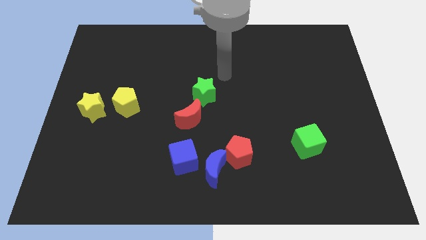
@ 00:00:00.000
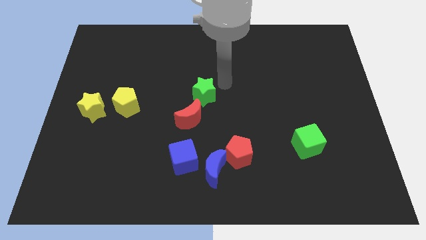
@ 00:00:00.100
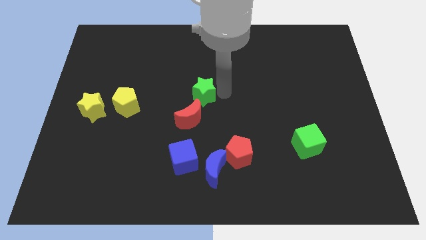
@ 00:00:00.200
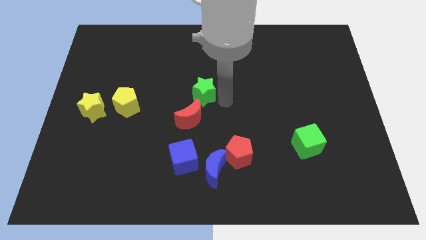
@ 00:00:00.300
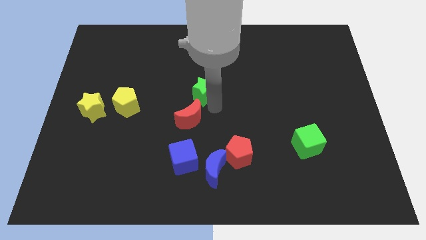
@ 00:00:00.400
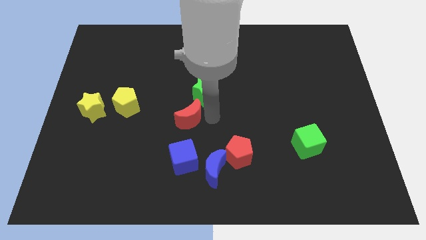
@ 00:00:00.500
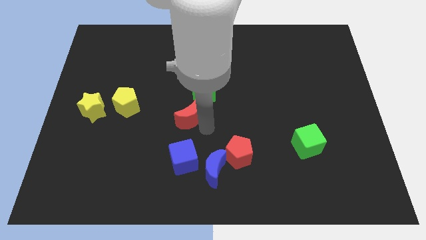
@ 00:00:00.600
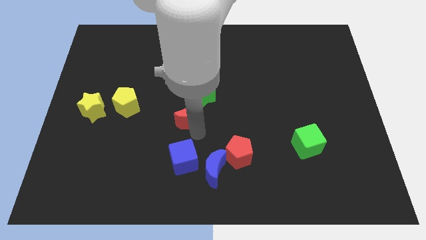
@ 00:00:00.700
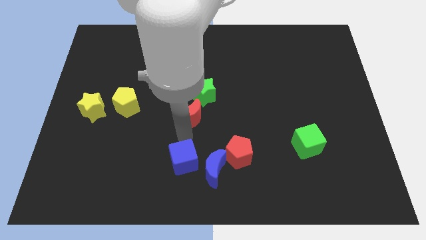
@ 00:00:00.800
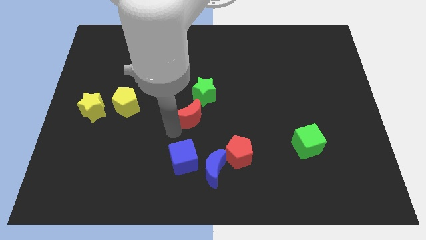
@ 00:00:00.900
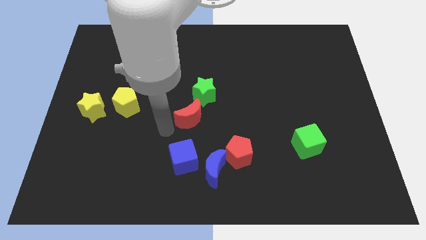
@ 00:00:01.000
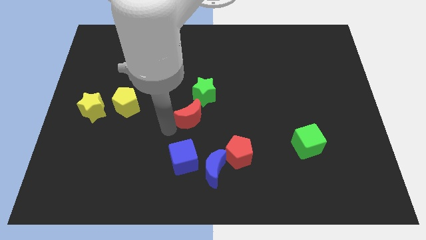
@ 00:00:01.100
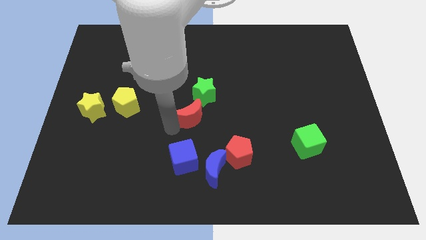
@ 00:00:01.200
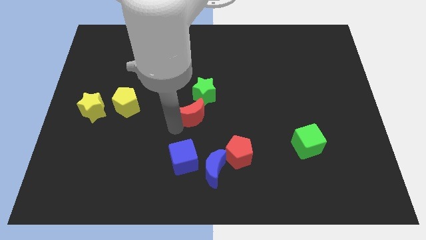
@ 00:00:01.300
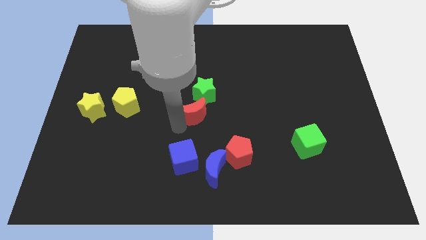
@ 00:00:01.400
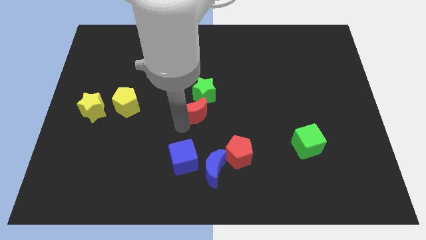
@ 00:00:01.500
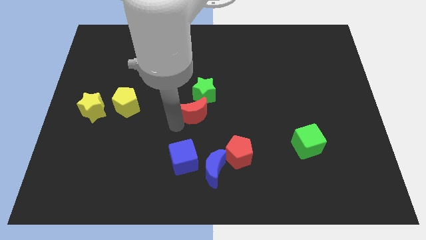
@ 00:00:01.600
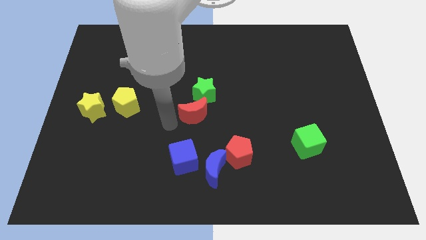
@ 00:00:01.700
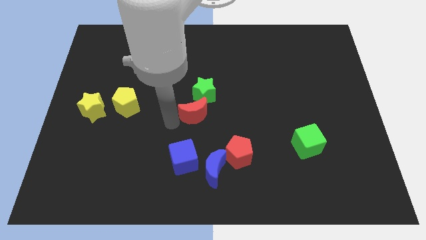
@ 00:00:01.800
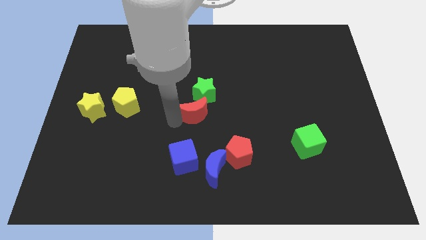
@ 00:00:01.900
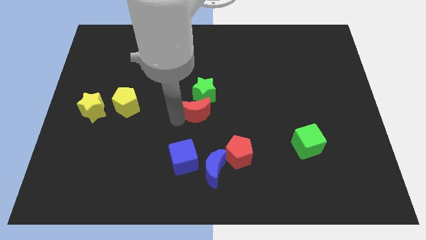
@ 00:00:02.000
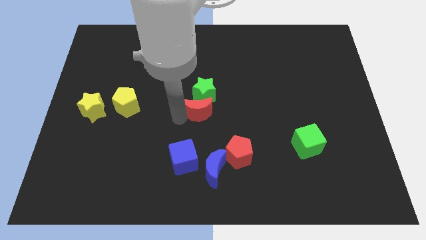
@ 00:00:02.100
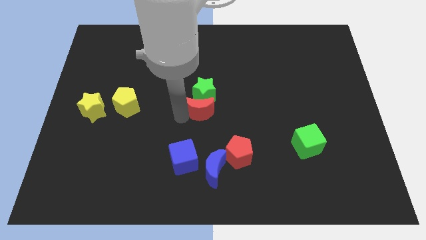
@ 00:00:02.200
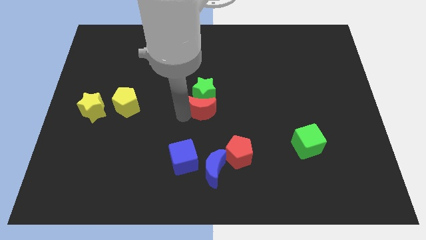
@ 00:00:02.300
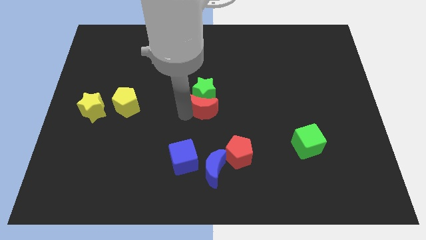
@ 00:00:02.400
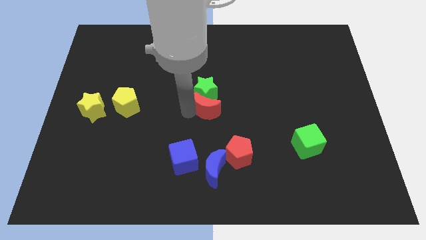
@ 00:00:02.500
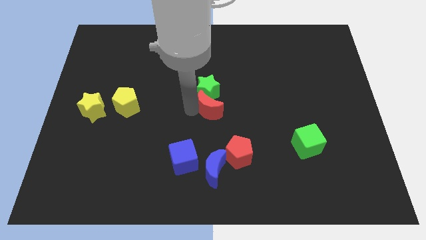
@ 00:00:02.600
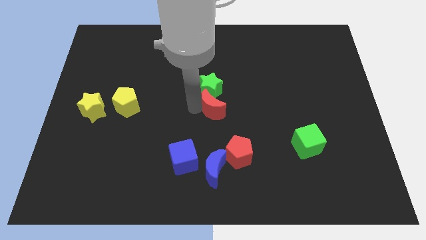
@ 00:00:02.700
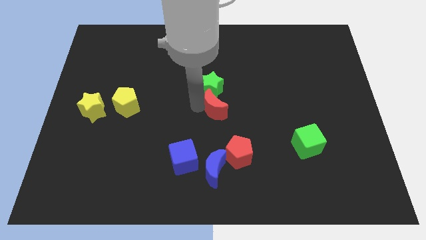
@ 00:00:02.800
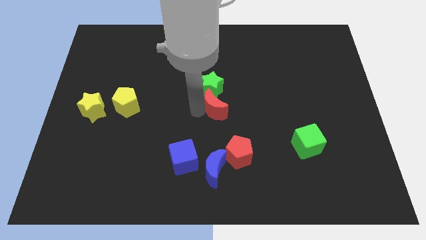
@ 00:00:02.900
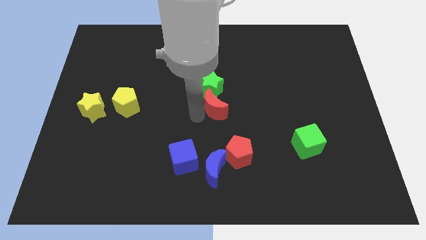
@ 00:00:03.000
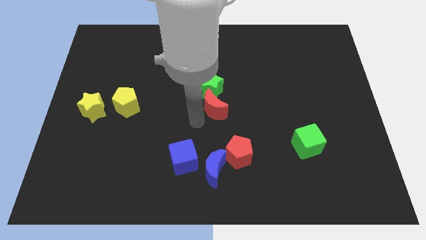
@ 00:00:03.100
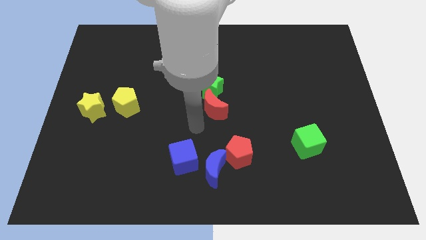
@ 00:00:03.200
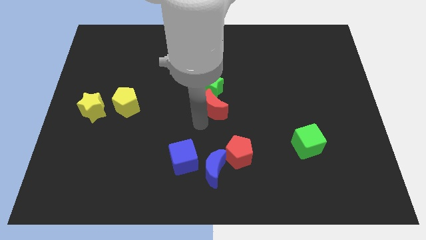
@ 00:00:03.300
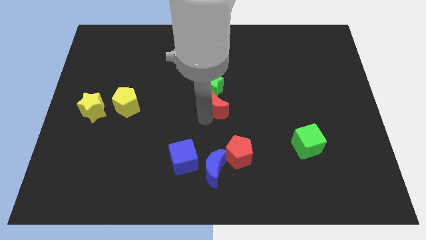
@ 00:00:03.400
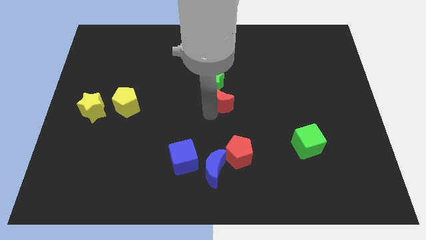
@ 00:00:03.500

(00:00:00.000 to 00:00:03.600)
move the red moon upwards and right diagonally slightly

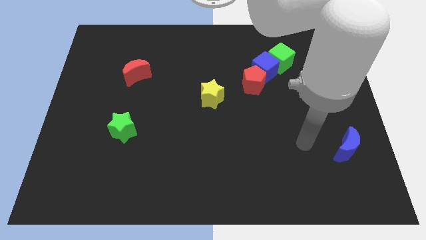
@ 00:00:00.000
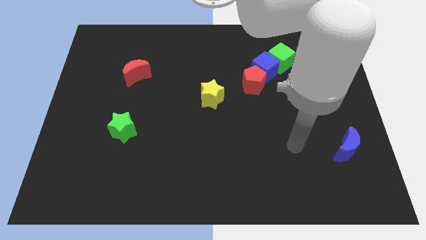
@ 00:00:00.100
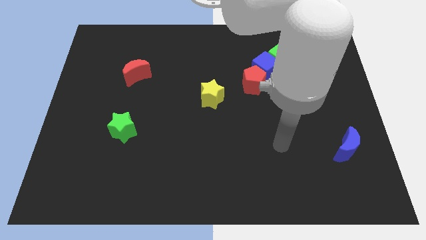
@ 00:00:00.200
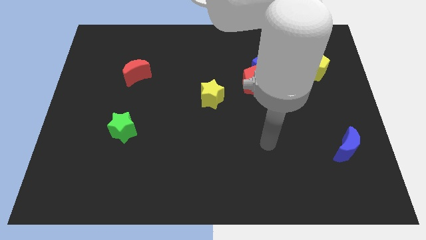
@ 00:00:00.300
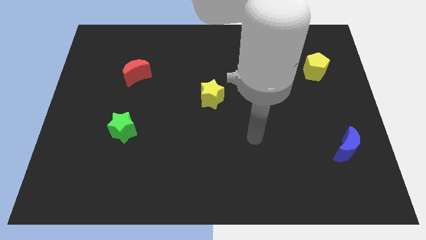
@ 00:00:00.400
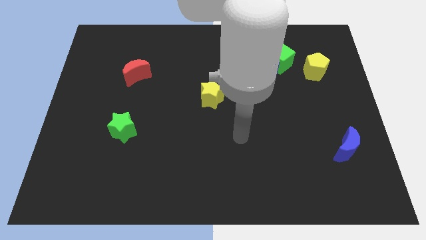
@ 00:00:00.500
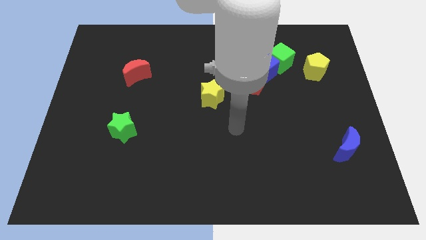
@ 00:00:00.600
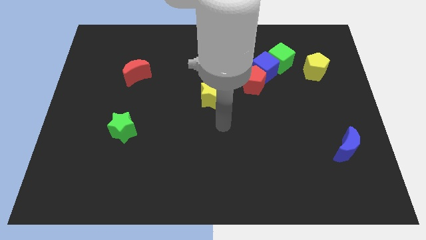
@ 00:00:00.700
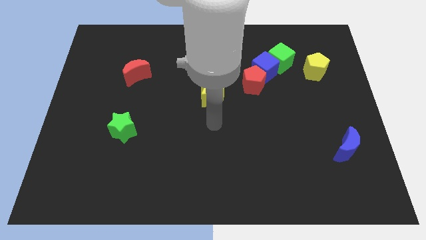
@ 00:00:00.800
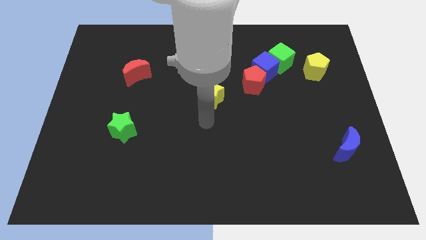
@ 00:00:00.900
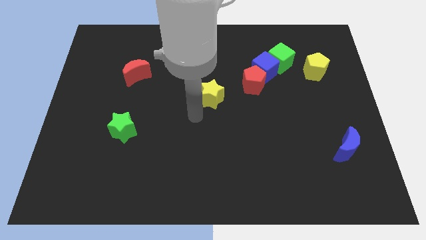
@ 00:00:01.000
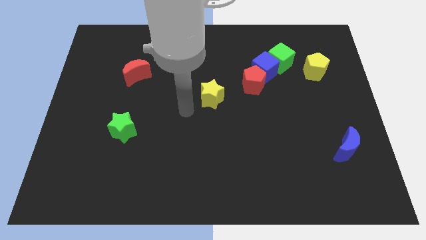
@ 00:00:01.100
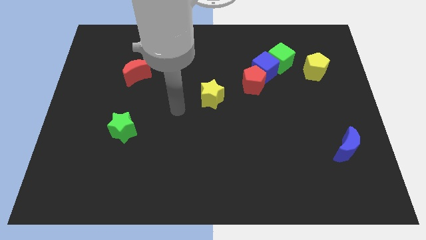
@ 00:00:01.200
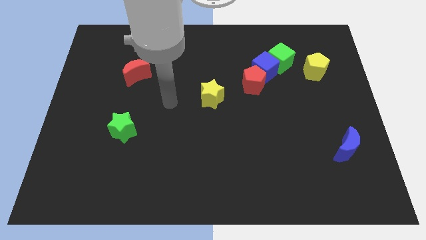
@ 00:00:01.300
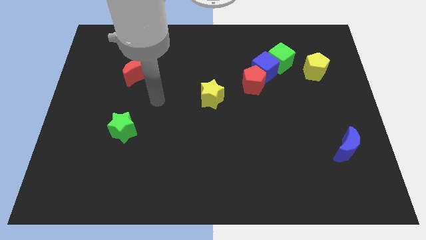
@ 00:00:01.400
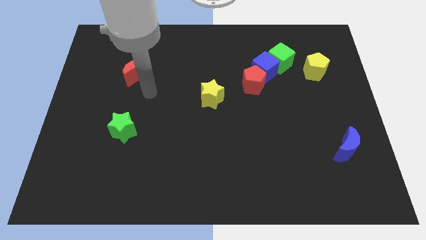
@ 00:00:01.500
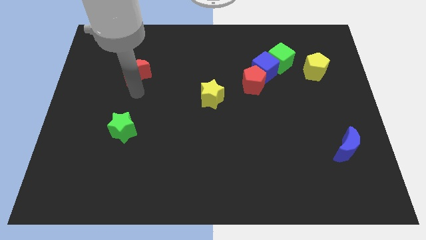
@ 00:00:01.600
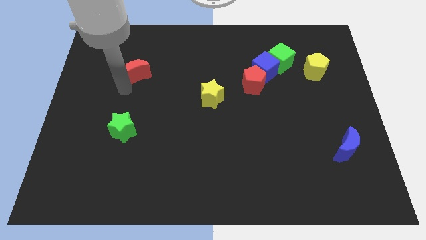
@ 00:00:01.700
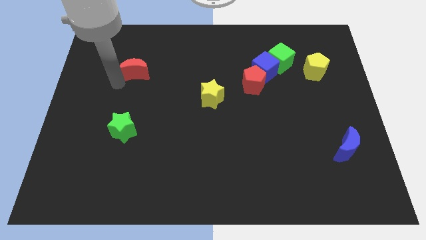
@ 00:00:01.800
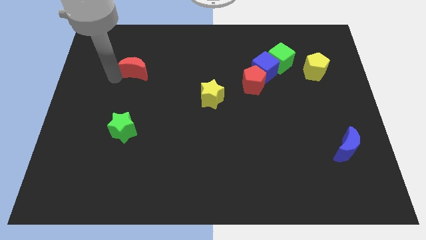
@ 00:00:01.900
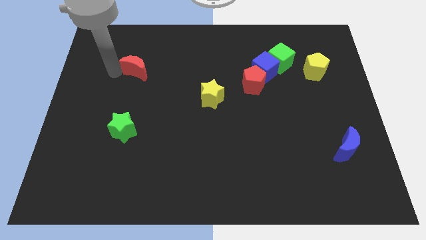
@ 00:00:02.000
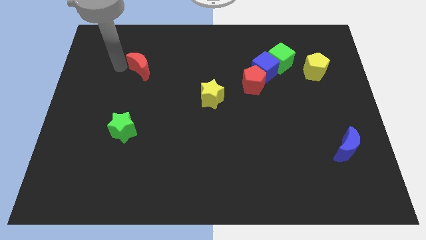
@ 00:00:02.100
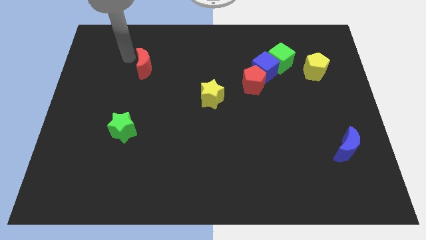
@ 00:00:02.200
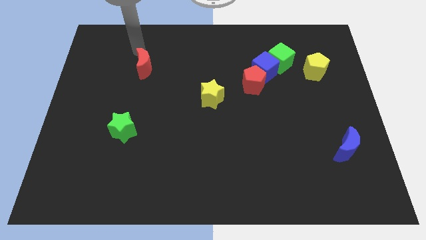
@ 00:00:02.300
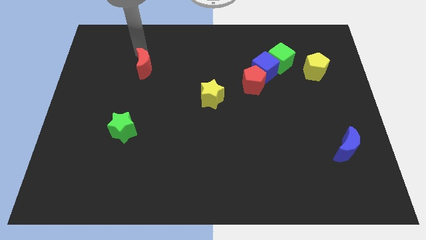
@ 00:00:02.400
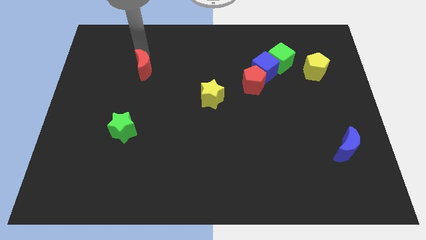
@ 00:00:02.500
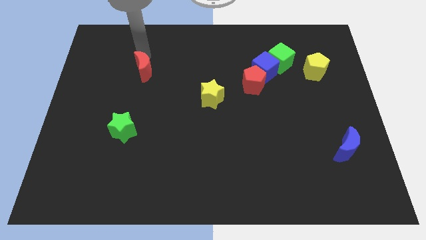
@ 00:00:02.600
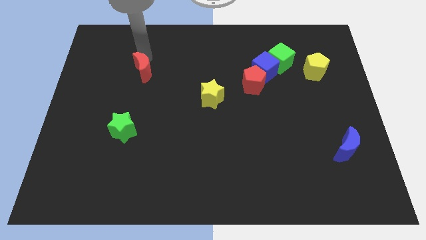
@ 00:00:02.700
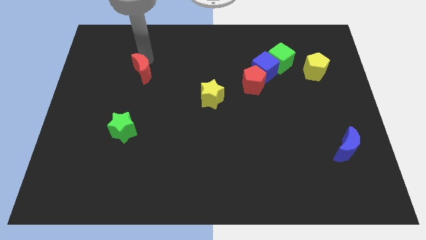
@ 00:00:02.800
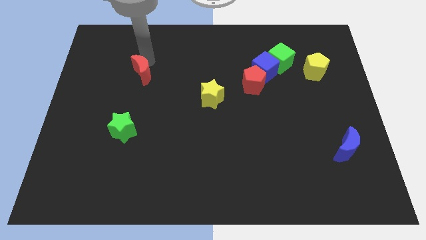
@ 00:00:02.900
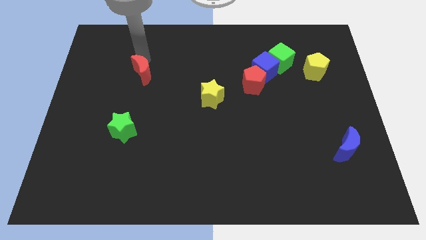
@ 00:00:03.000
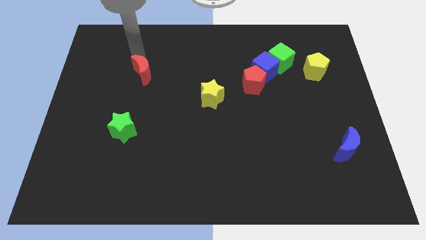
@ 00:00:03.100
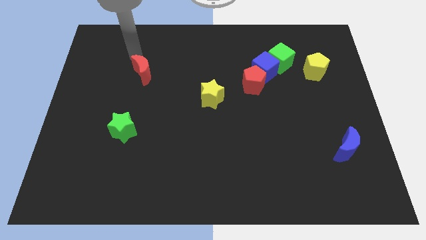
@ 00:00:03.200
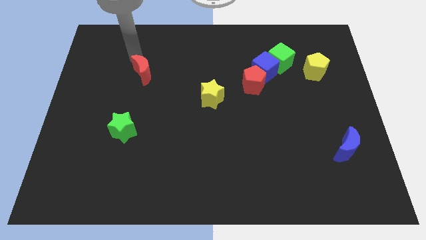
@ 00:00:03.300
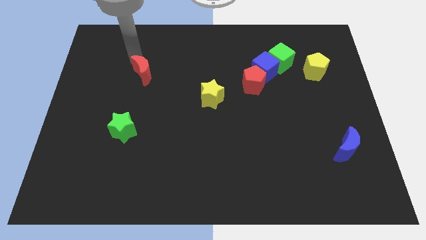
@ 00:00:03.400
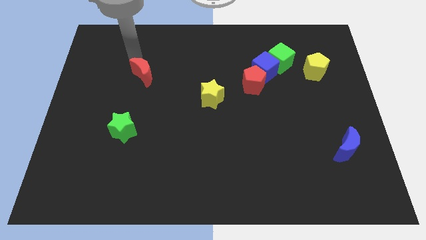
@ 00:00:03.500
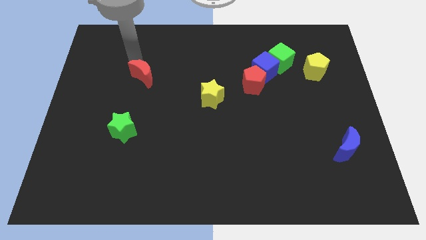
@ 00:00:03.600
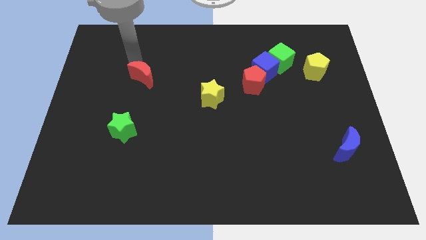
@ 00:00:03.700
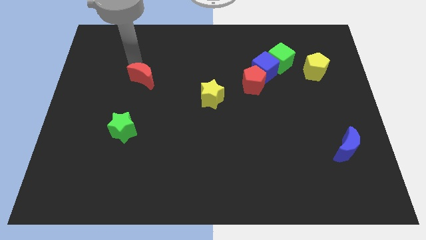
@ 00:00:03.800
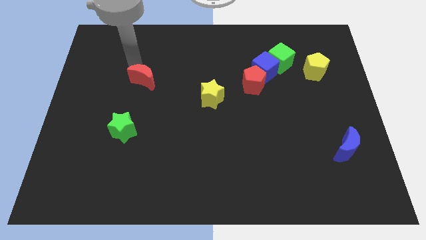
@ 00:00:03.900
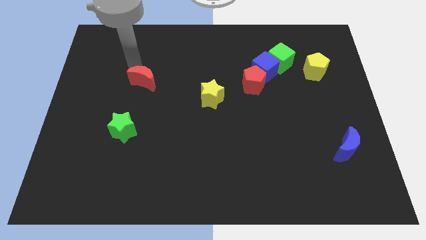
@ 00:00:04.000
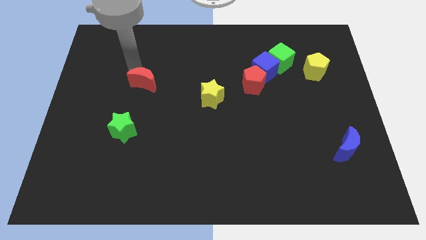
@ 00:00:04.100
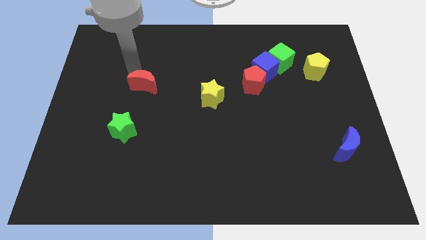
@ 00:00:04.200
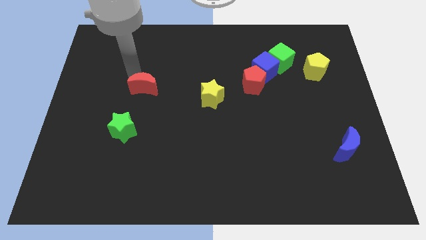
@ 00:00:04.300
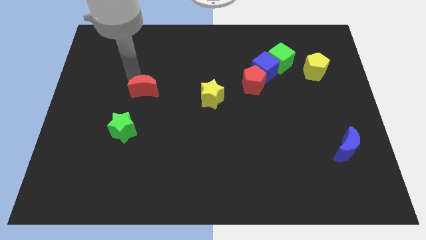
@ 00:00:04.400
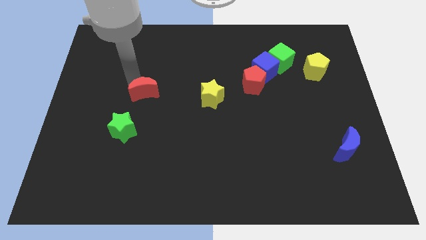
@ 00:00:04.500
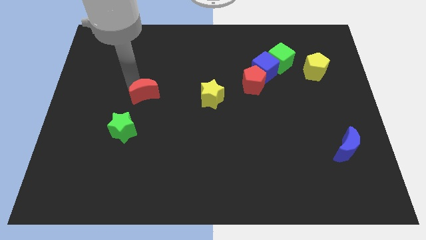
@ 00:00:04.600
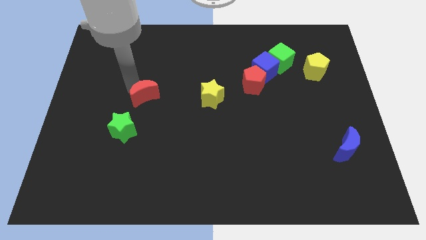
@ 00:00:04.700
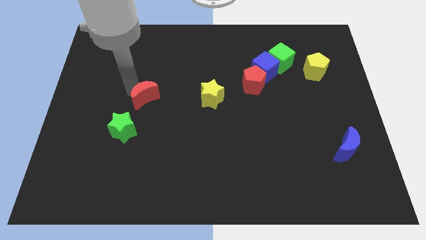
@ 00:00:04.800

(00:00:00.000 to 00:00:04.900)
slide the red moon diagonally downwards and right a little bit
